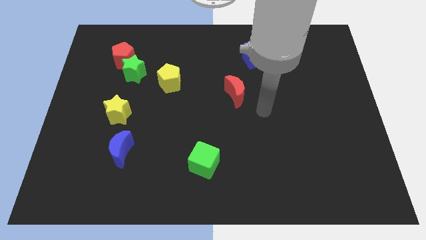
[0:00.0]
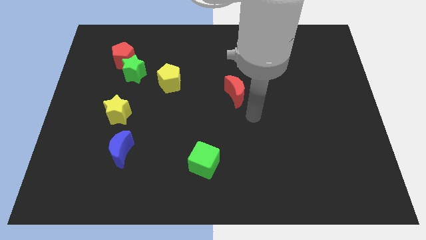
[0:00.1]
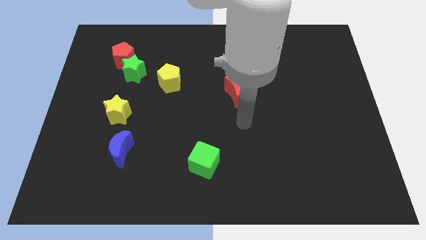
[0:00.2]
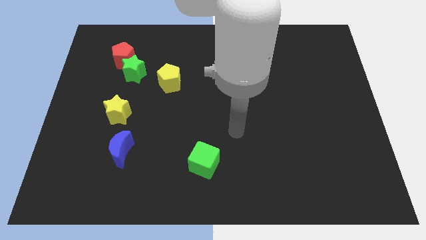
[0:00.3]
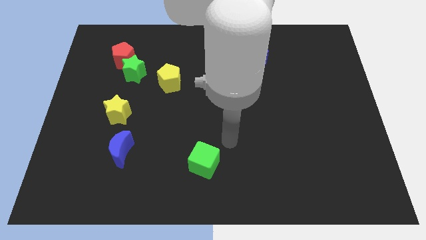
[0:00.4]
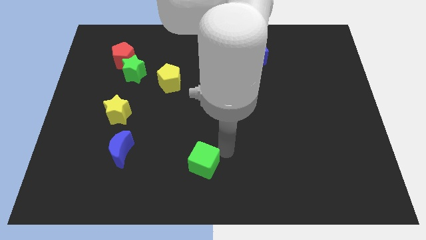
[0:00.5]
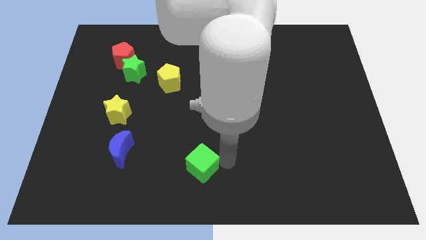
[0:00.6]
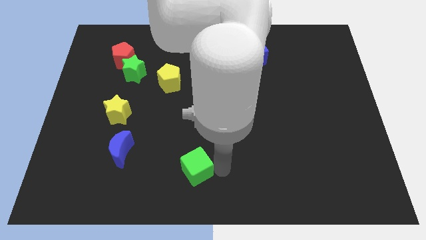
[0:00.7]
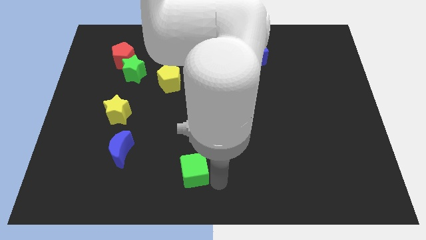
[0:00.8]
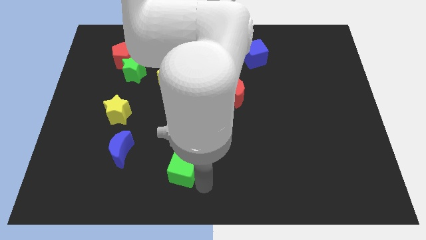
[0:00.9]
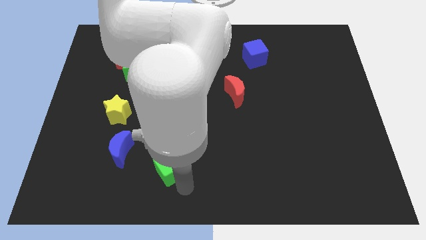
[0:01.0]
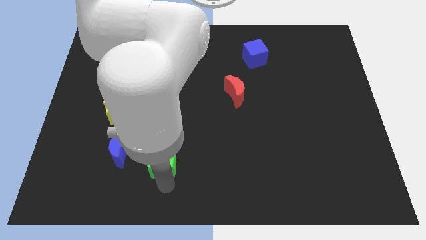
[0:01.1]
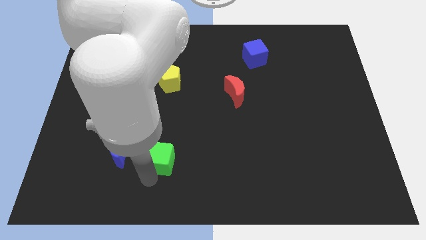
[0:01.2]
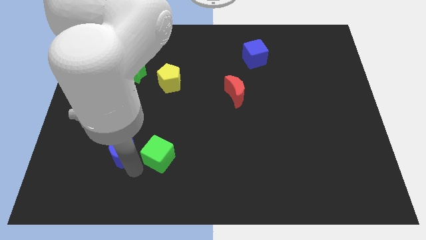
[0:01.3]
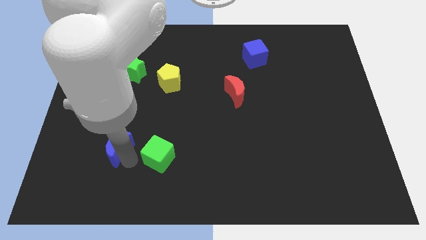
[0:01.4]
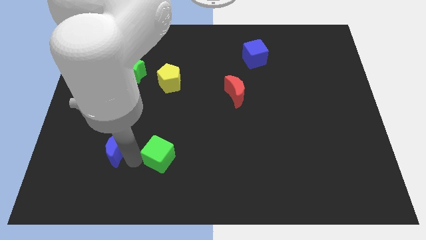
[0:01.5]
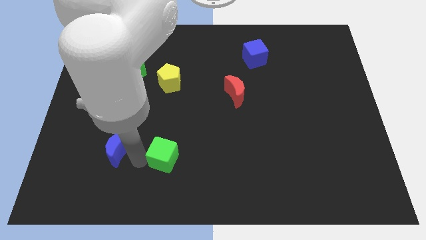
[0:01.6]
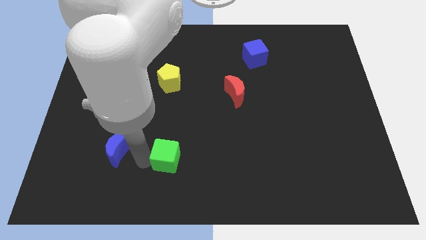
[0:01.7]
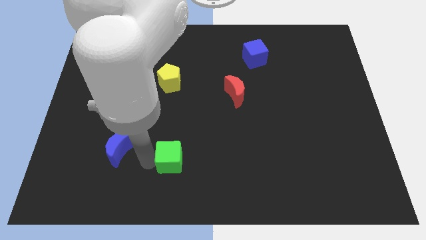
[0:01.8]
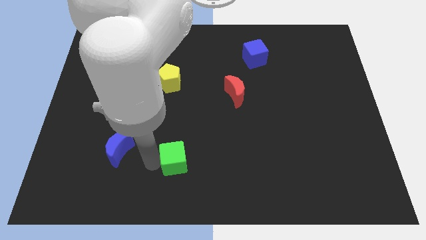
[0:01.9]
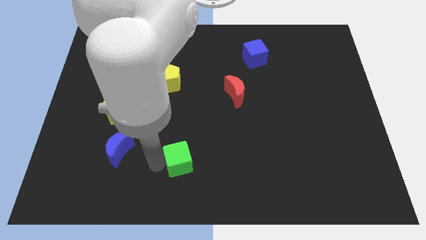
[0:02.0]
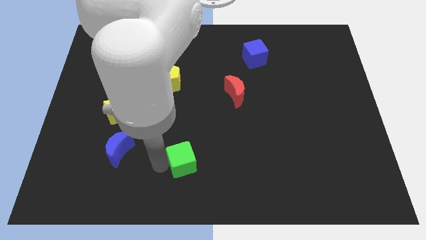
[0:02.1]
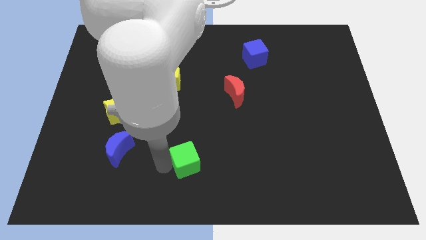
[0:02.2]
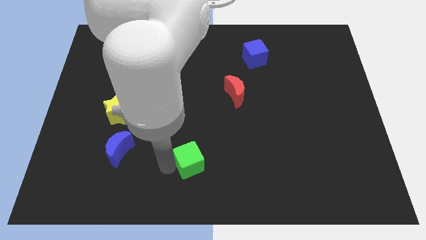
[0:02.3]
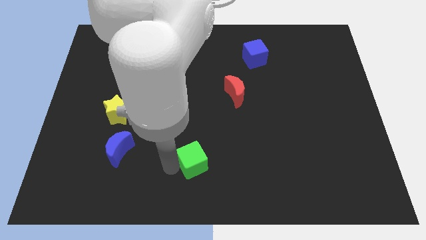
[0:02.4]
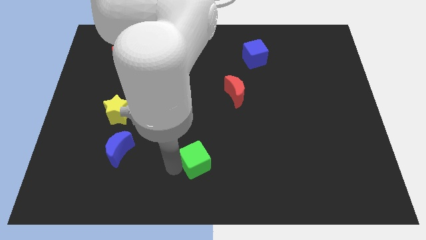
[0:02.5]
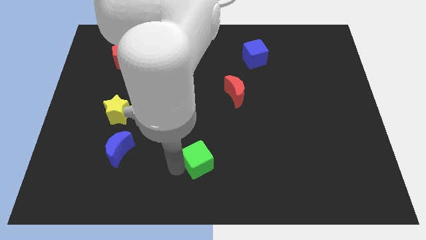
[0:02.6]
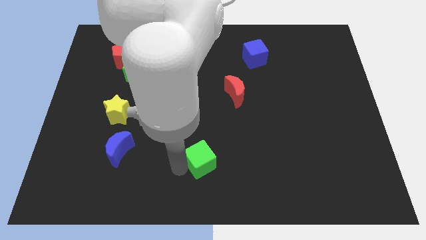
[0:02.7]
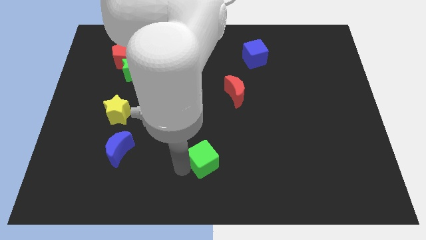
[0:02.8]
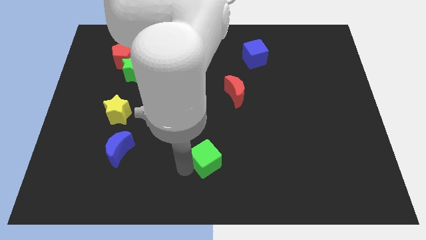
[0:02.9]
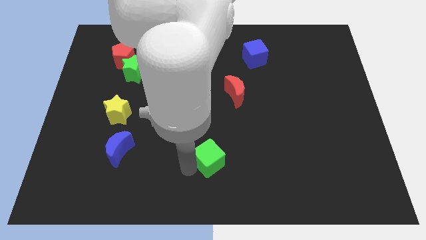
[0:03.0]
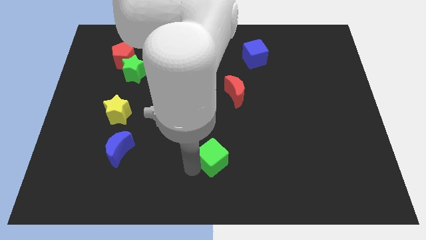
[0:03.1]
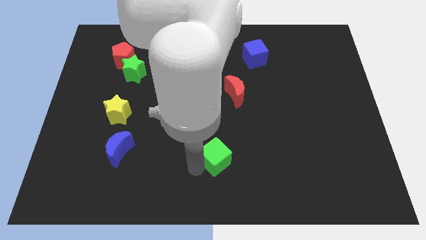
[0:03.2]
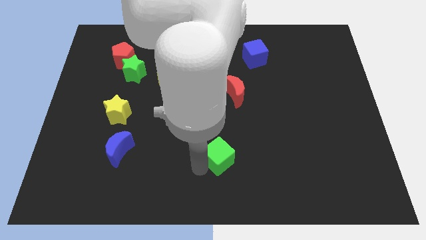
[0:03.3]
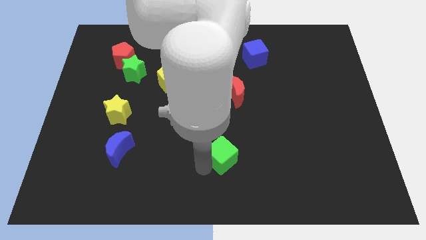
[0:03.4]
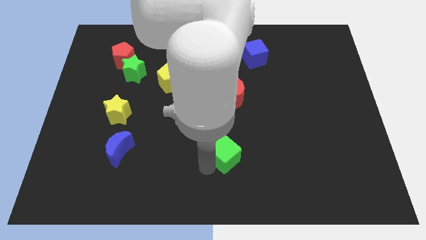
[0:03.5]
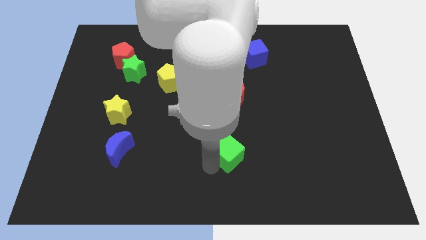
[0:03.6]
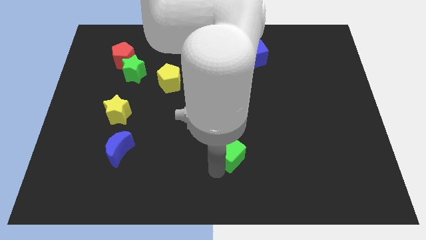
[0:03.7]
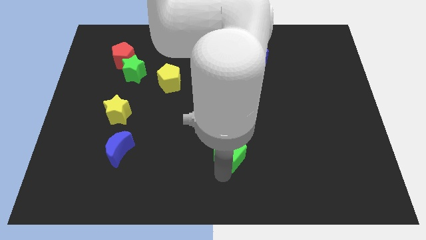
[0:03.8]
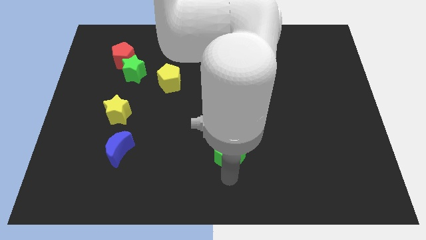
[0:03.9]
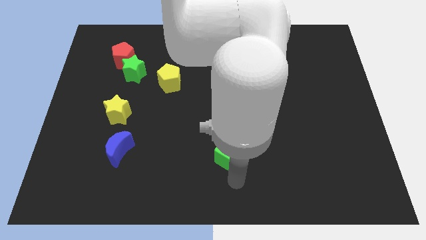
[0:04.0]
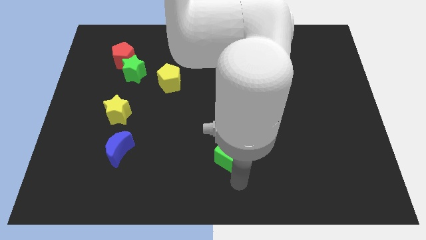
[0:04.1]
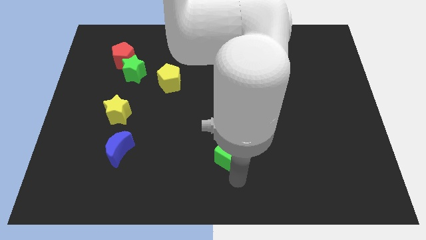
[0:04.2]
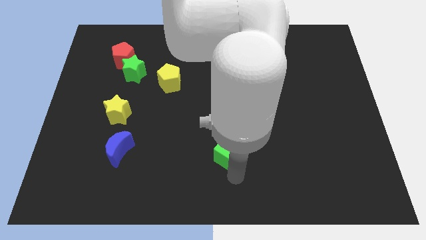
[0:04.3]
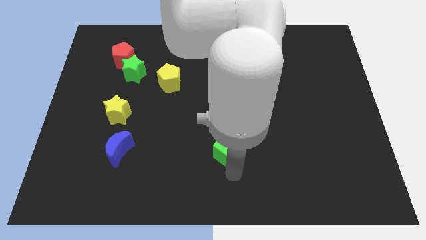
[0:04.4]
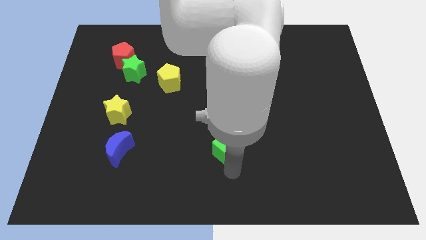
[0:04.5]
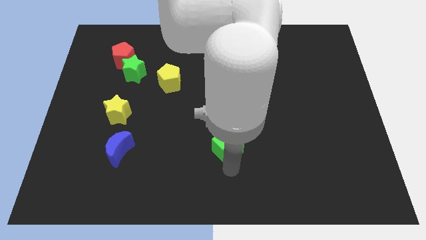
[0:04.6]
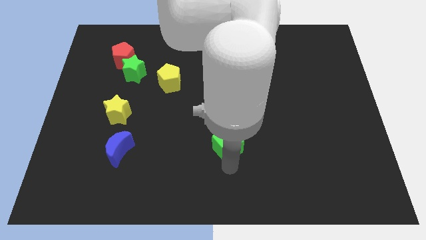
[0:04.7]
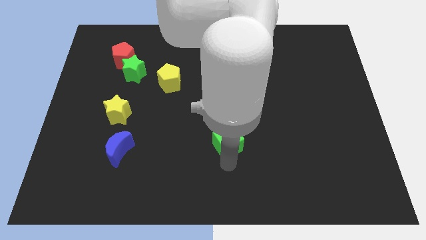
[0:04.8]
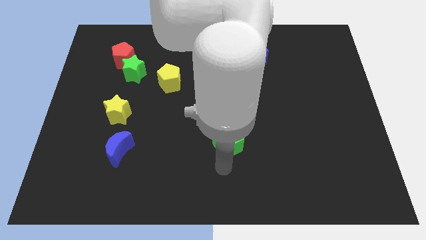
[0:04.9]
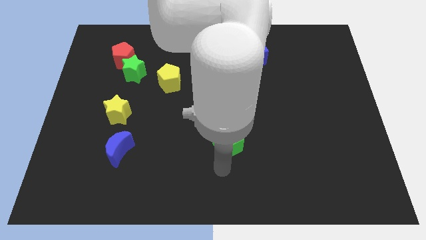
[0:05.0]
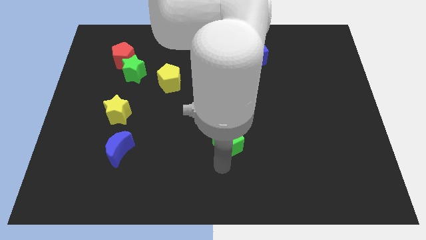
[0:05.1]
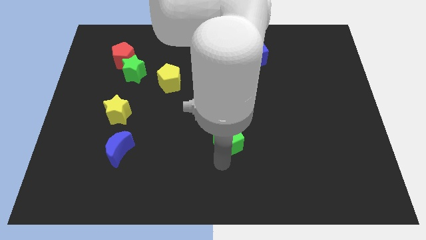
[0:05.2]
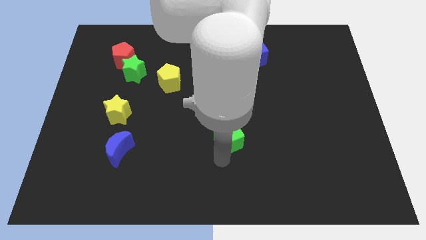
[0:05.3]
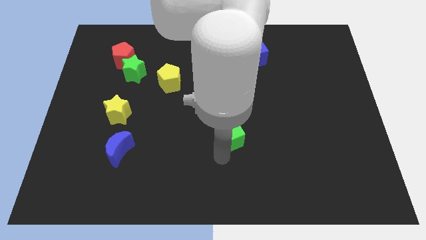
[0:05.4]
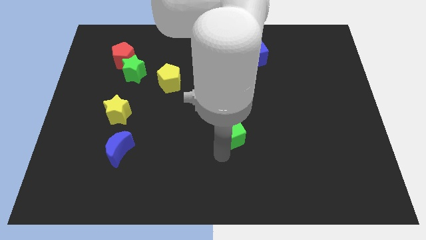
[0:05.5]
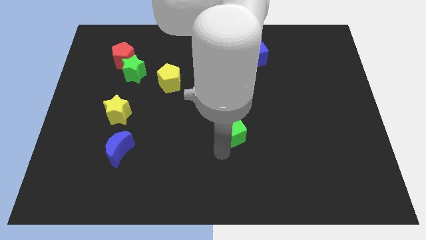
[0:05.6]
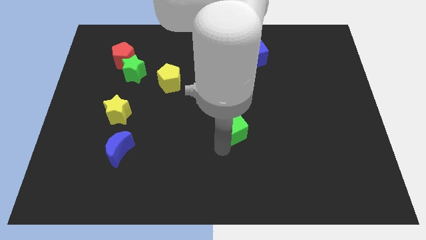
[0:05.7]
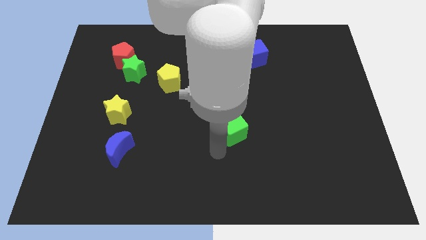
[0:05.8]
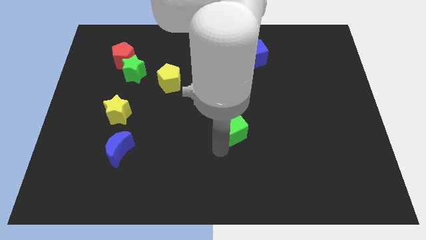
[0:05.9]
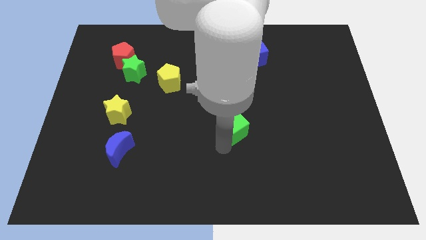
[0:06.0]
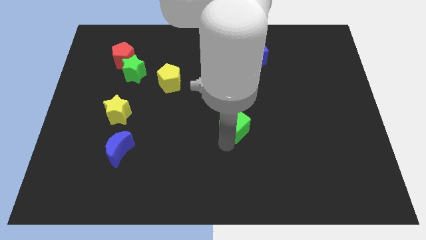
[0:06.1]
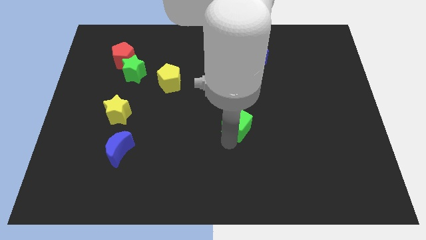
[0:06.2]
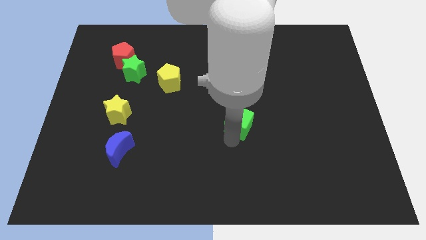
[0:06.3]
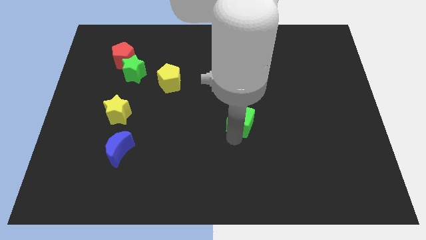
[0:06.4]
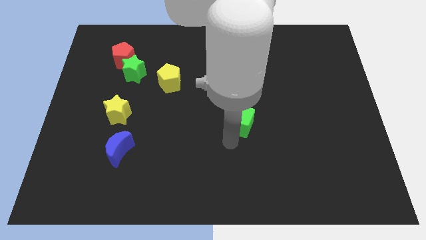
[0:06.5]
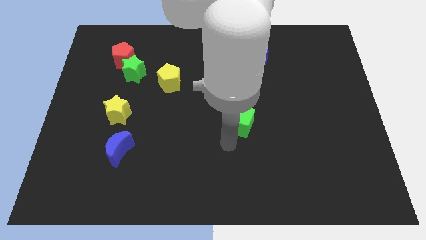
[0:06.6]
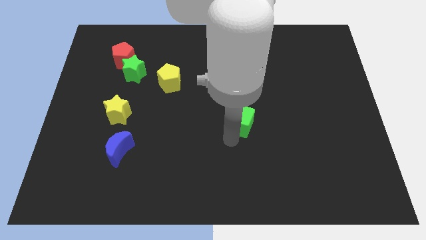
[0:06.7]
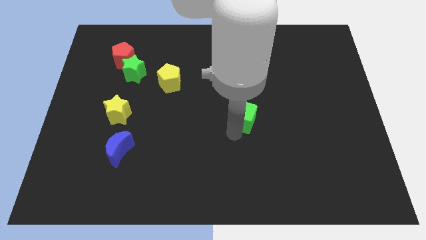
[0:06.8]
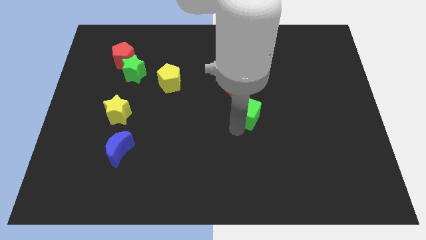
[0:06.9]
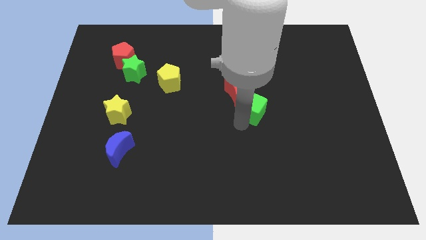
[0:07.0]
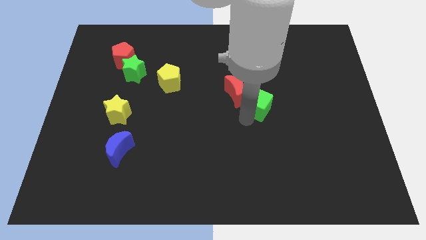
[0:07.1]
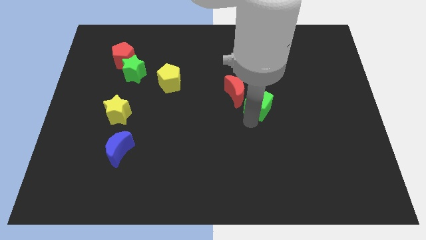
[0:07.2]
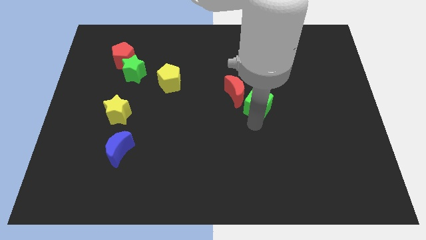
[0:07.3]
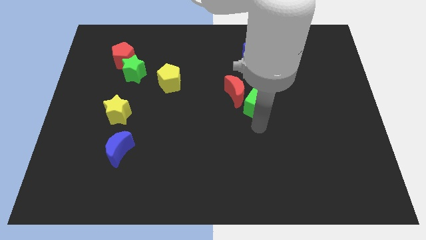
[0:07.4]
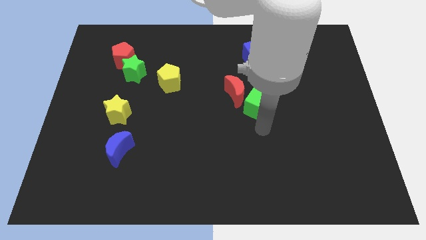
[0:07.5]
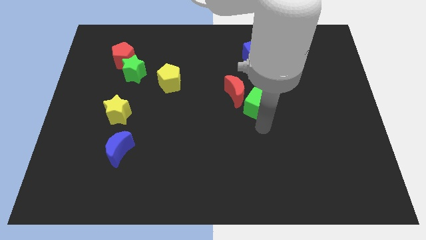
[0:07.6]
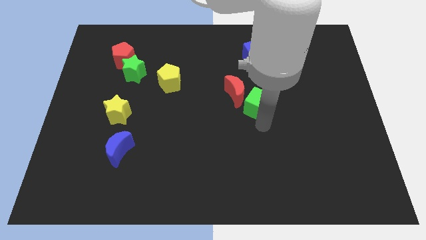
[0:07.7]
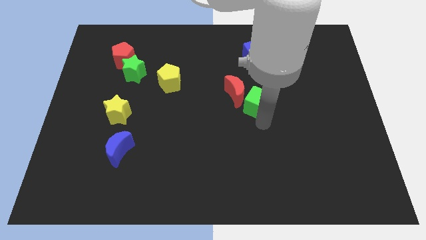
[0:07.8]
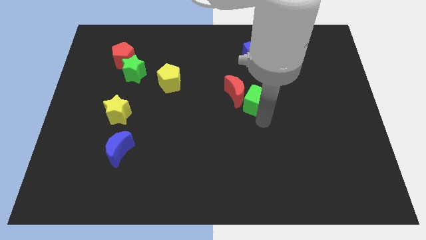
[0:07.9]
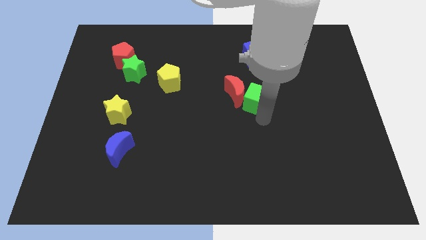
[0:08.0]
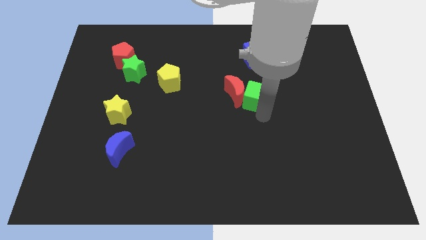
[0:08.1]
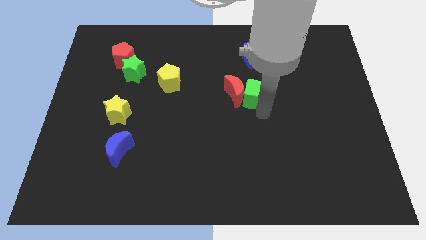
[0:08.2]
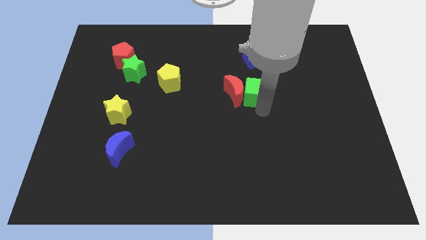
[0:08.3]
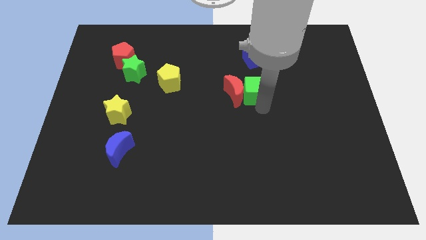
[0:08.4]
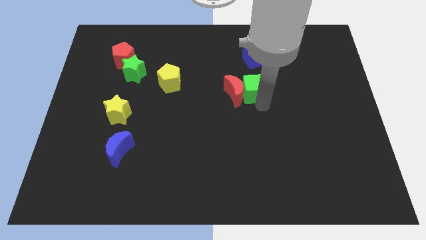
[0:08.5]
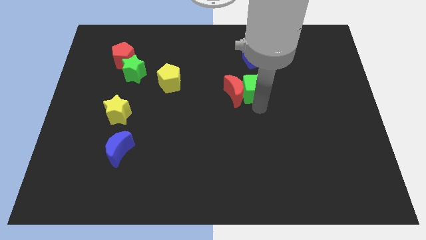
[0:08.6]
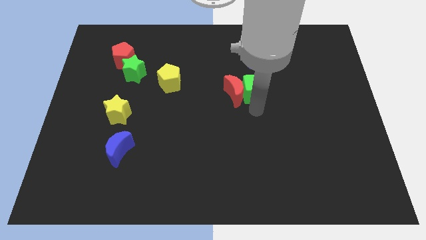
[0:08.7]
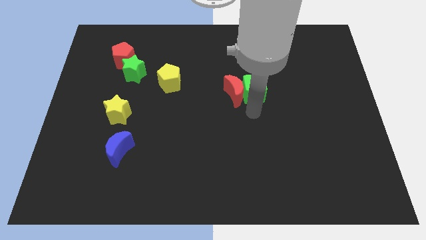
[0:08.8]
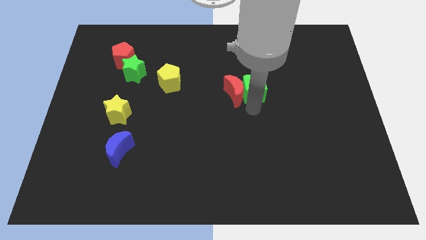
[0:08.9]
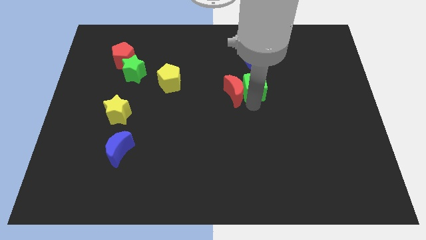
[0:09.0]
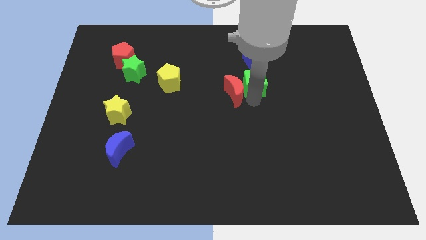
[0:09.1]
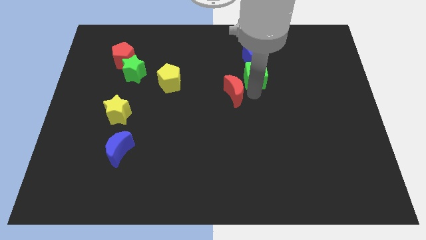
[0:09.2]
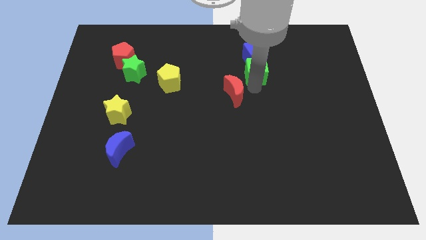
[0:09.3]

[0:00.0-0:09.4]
put the green cube next to the blue cube
